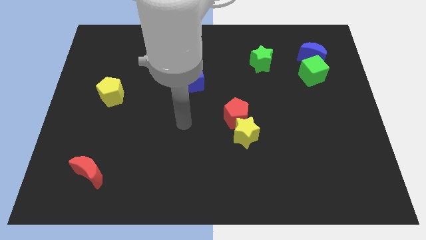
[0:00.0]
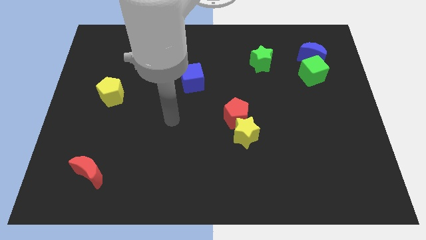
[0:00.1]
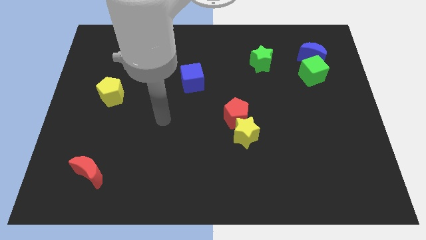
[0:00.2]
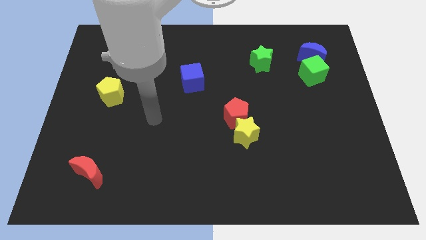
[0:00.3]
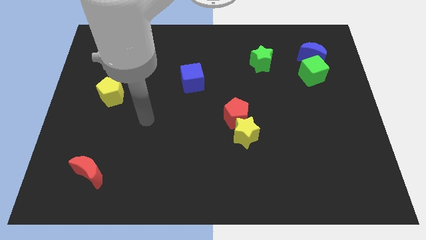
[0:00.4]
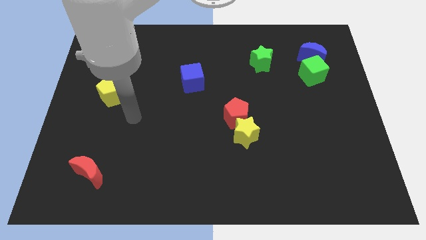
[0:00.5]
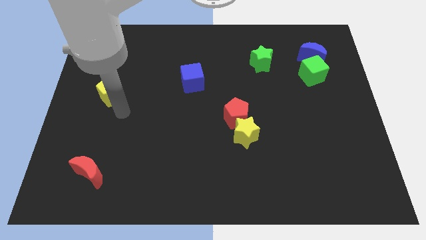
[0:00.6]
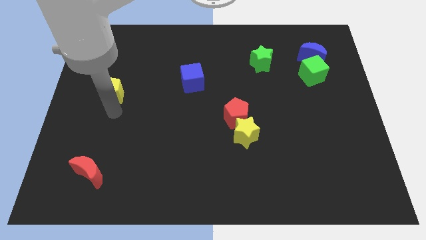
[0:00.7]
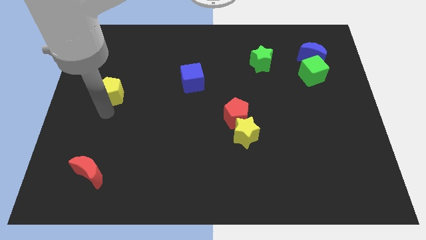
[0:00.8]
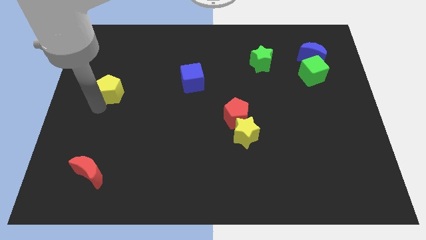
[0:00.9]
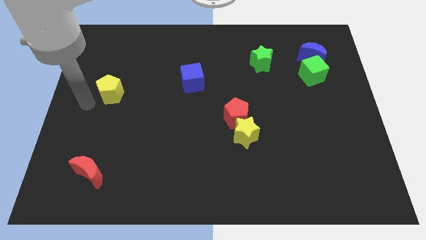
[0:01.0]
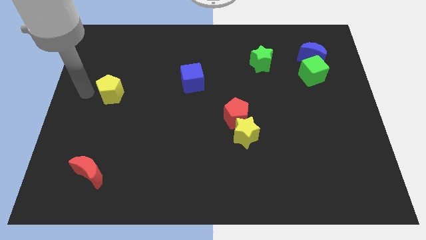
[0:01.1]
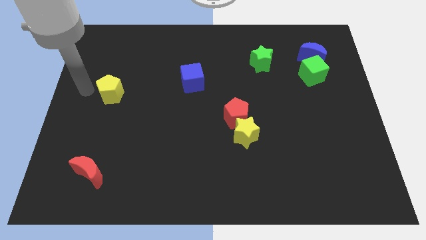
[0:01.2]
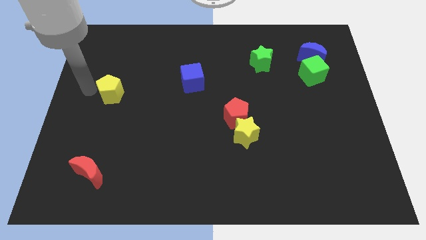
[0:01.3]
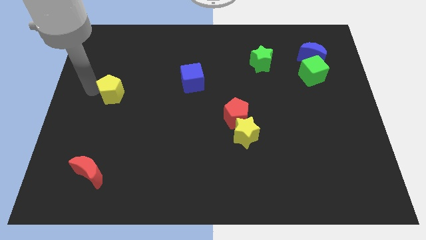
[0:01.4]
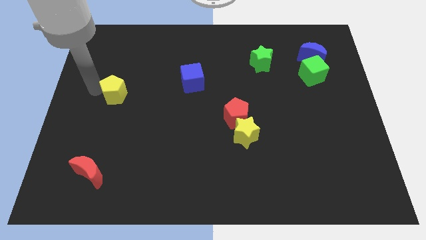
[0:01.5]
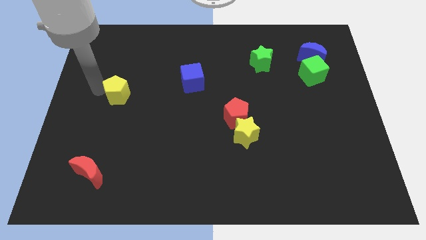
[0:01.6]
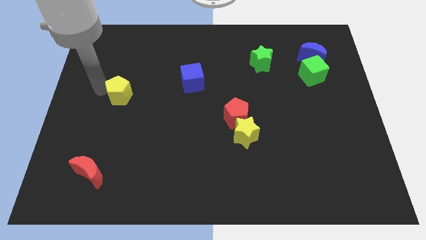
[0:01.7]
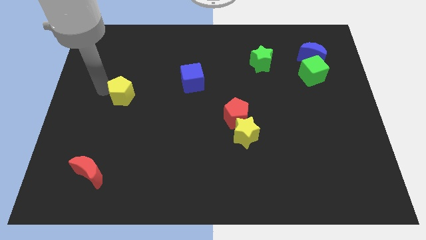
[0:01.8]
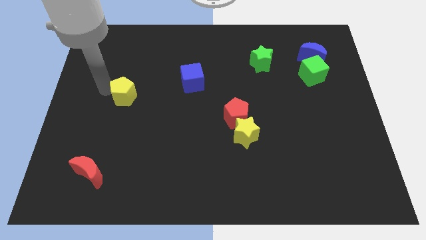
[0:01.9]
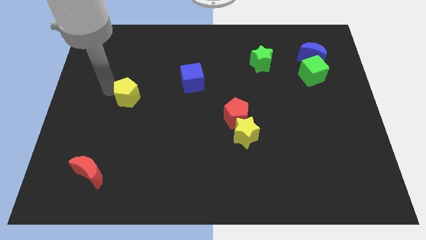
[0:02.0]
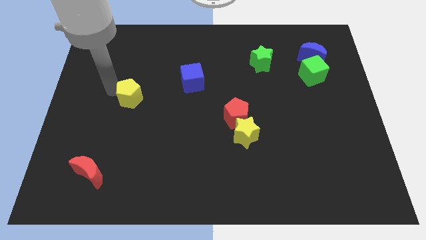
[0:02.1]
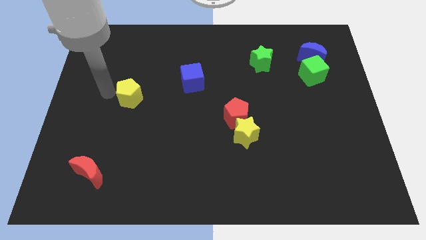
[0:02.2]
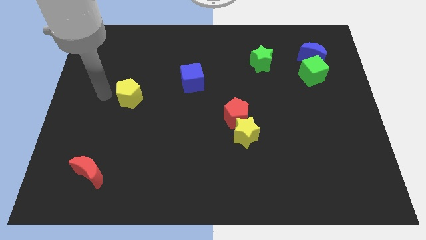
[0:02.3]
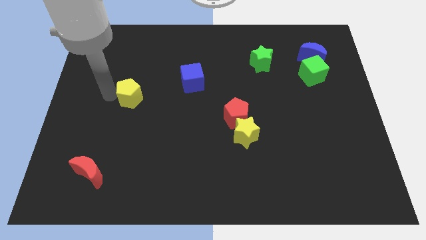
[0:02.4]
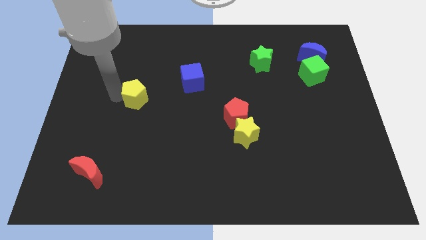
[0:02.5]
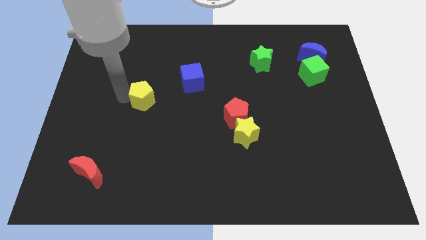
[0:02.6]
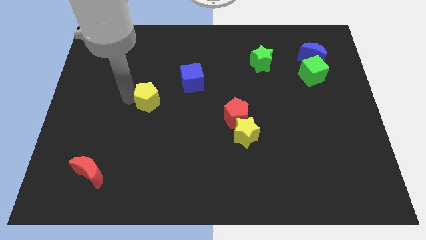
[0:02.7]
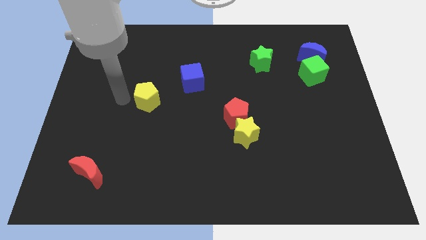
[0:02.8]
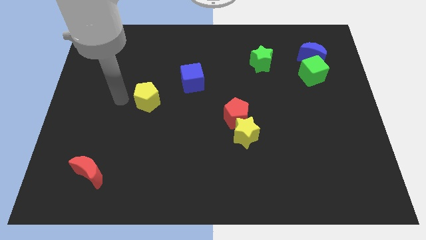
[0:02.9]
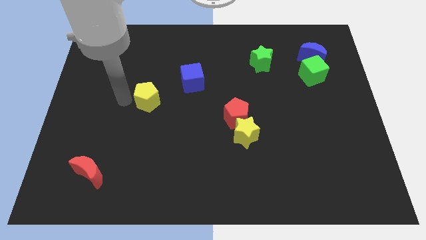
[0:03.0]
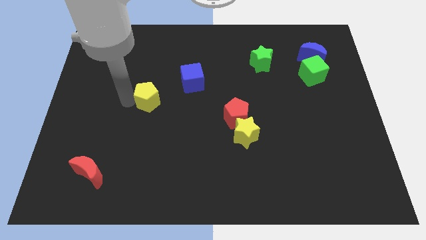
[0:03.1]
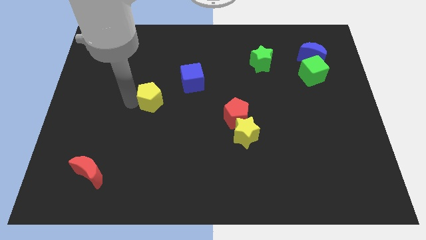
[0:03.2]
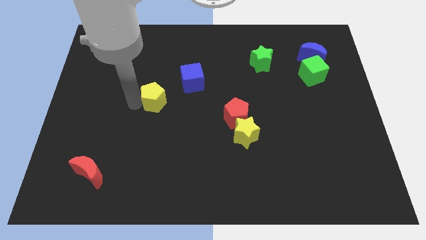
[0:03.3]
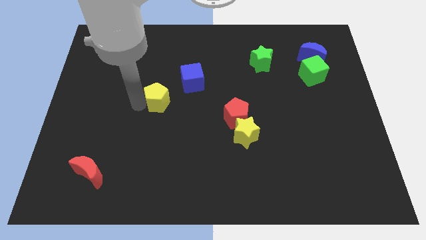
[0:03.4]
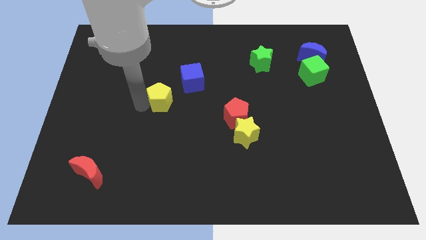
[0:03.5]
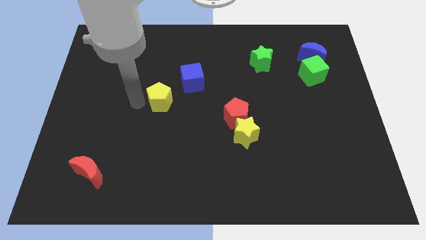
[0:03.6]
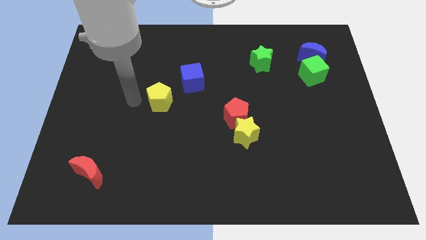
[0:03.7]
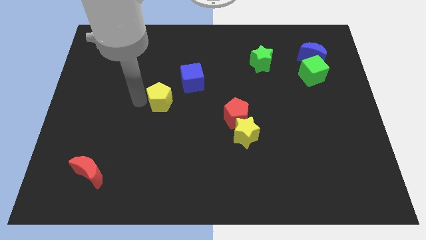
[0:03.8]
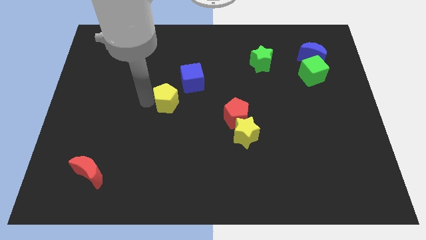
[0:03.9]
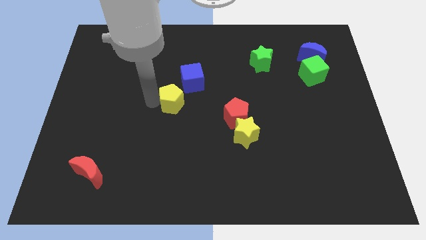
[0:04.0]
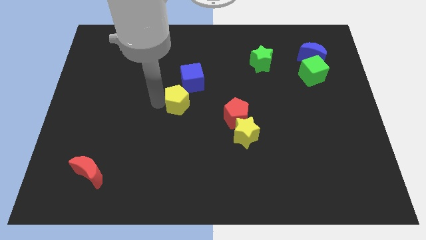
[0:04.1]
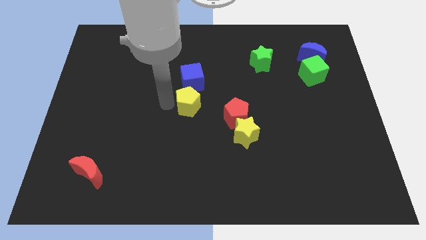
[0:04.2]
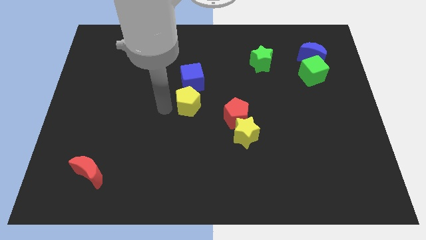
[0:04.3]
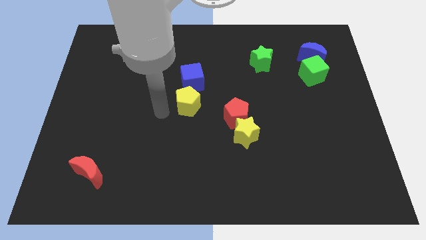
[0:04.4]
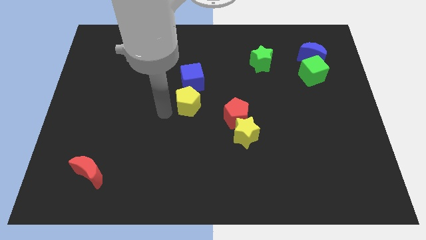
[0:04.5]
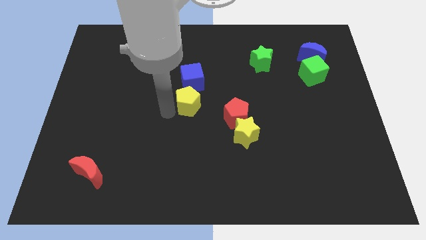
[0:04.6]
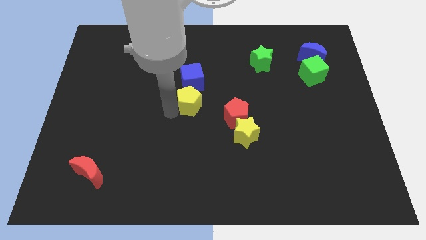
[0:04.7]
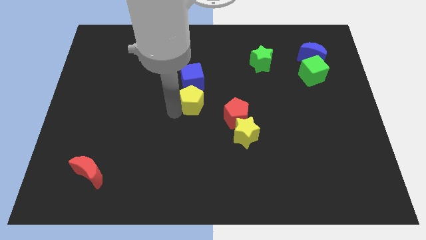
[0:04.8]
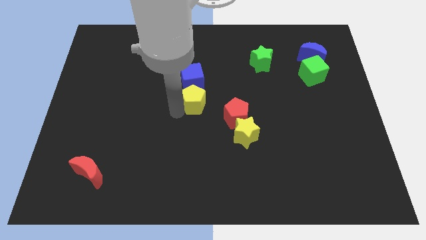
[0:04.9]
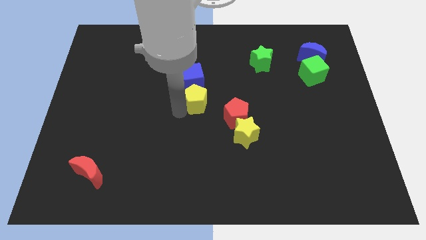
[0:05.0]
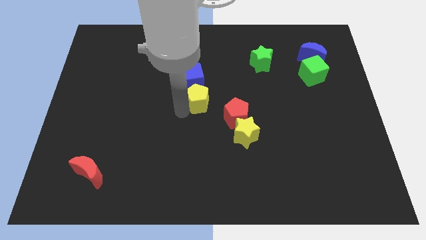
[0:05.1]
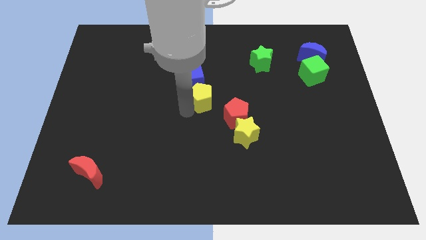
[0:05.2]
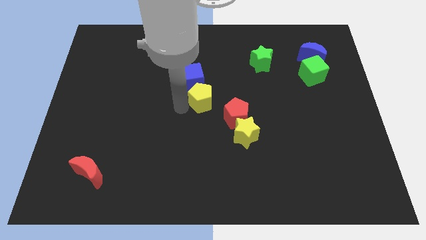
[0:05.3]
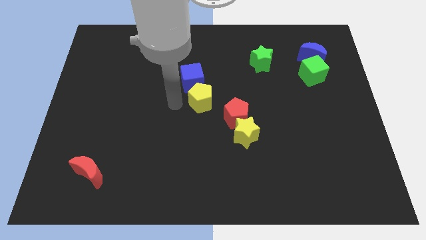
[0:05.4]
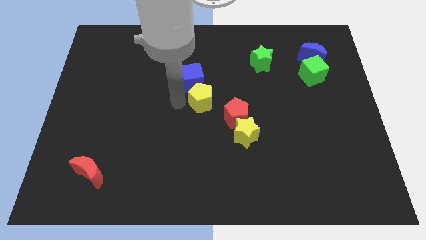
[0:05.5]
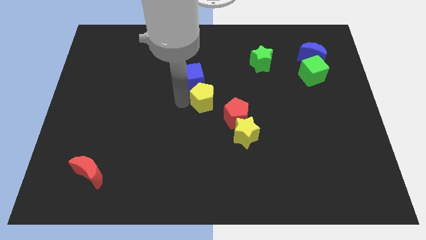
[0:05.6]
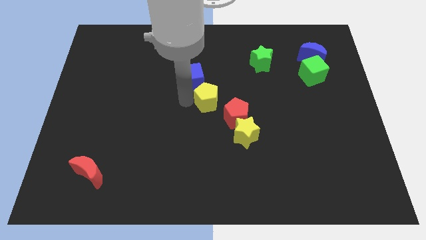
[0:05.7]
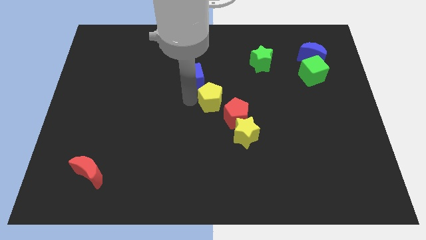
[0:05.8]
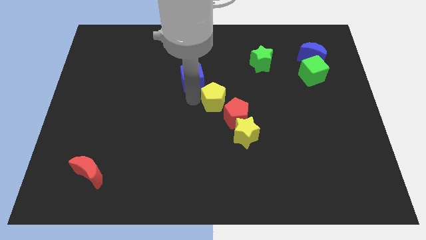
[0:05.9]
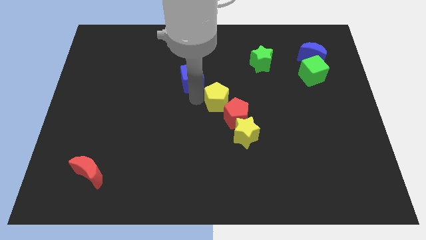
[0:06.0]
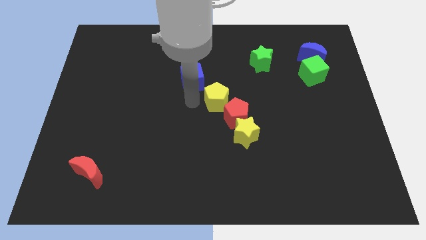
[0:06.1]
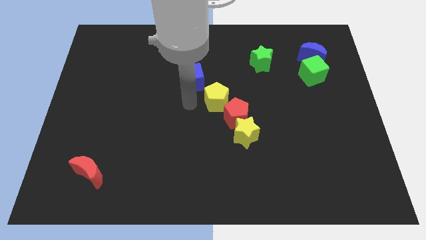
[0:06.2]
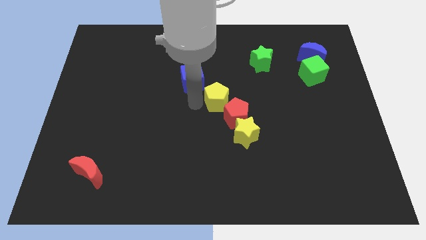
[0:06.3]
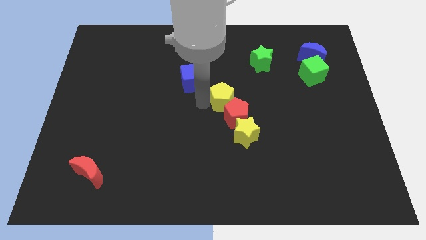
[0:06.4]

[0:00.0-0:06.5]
slide the yellow pentagon to the top side of the yellow star

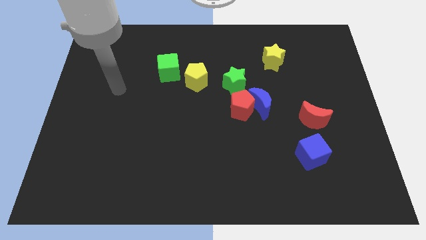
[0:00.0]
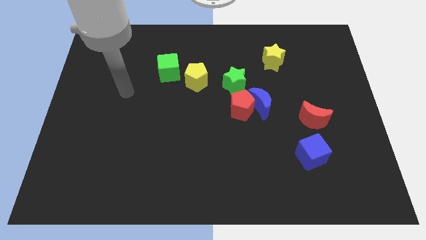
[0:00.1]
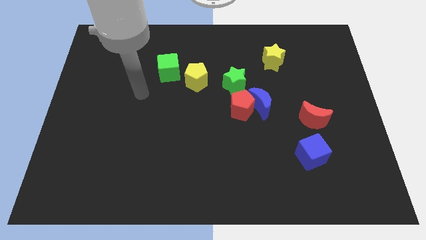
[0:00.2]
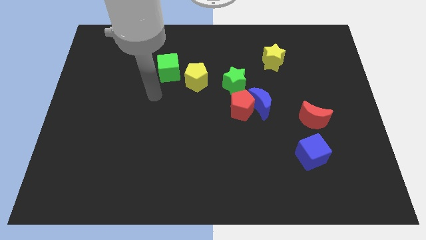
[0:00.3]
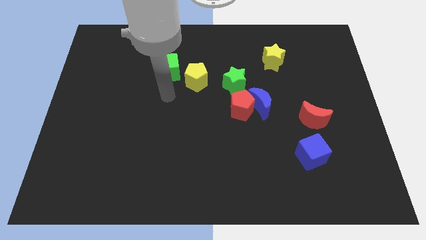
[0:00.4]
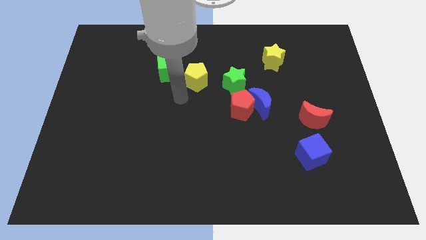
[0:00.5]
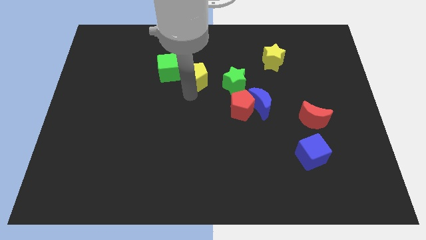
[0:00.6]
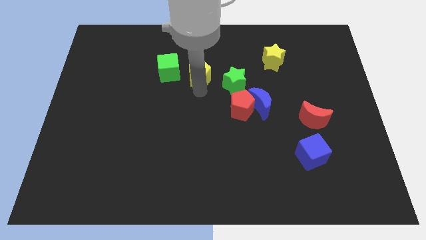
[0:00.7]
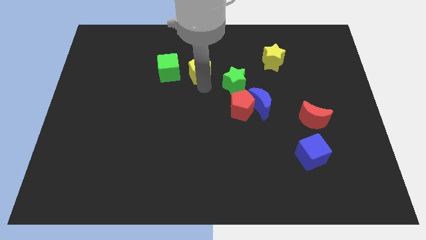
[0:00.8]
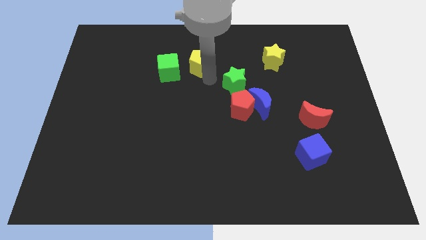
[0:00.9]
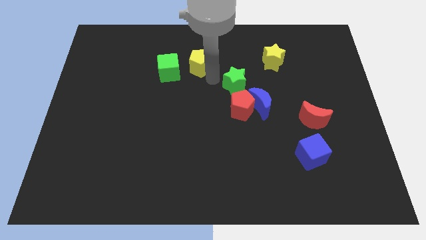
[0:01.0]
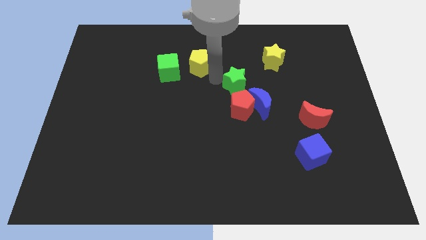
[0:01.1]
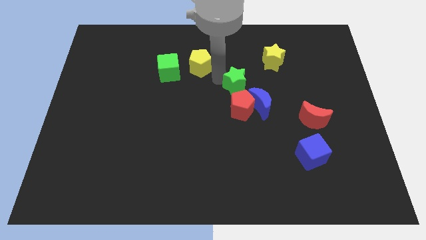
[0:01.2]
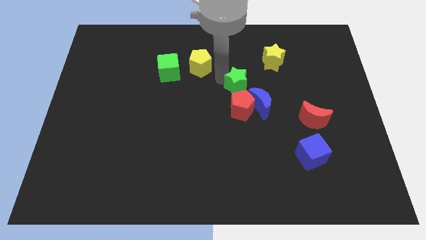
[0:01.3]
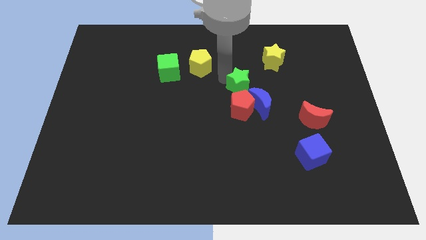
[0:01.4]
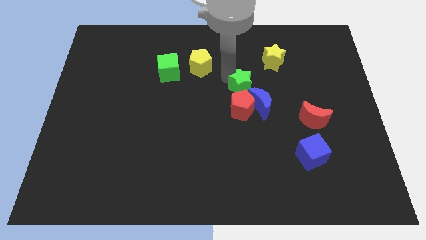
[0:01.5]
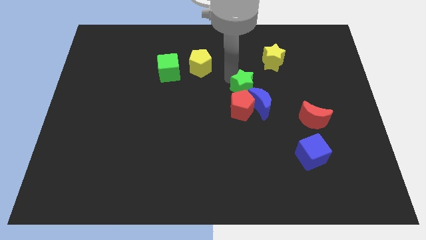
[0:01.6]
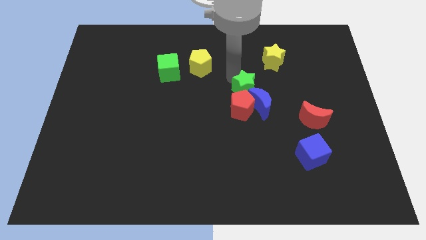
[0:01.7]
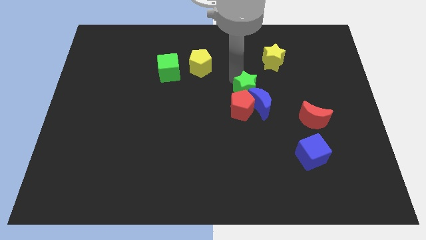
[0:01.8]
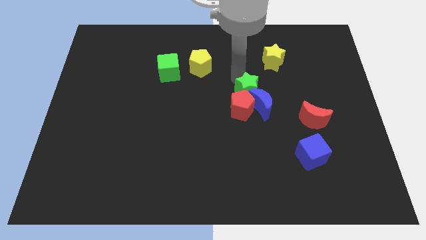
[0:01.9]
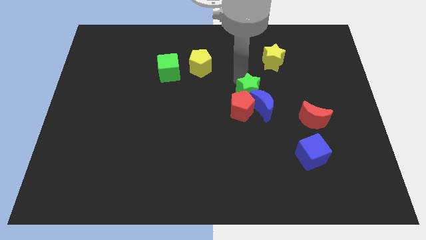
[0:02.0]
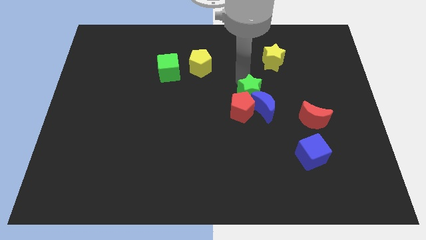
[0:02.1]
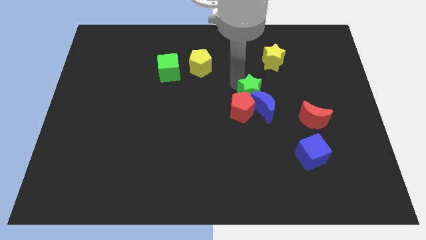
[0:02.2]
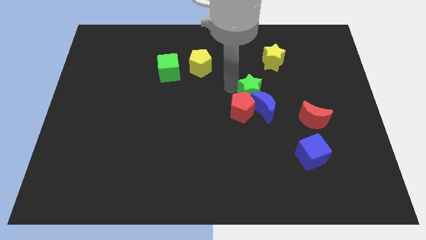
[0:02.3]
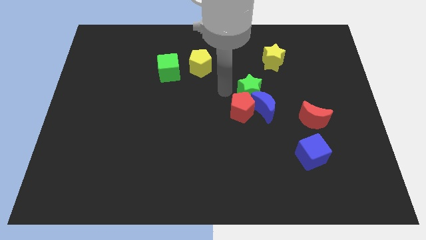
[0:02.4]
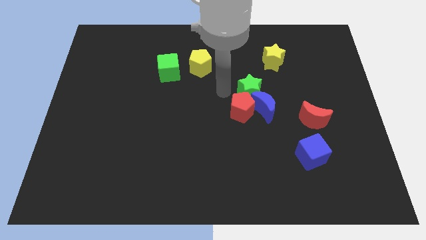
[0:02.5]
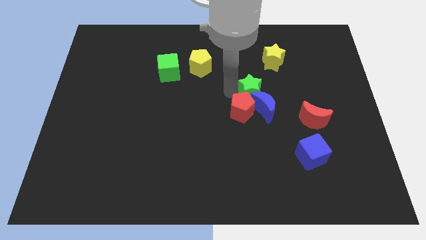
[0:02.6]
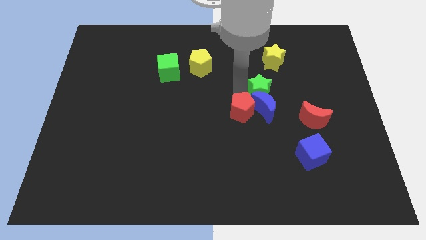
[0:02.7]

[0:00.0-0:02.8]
push the green star to the top right side of the blue moon
